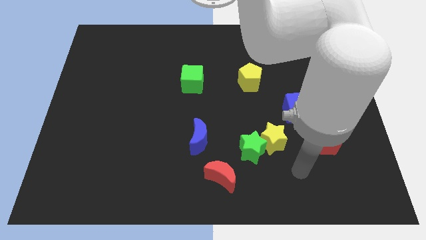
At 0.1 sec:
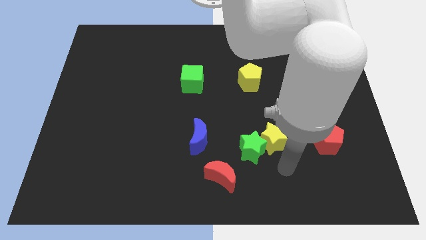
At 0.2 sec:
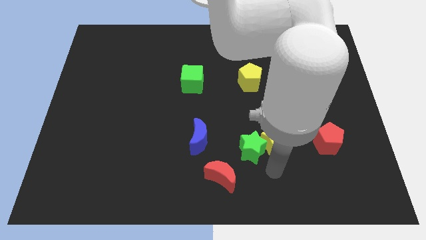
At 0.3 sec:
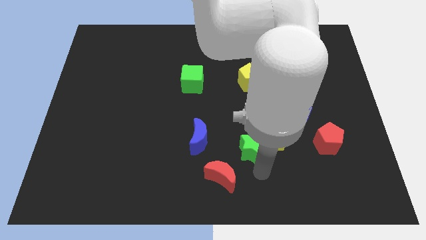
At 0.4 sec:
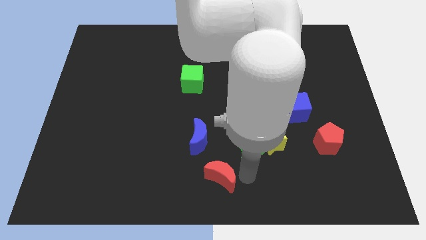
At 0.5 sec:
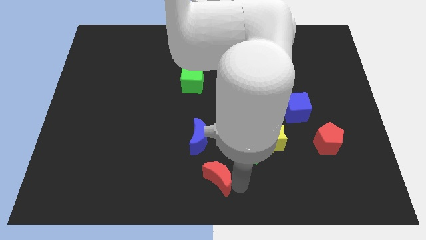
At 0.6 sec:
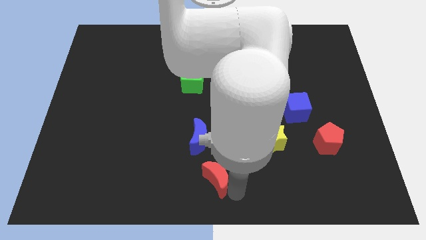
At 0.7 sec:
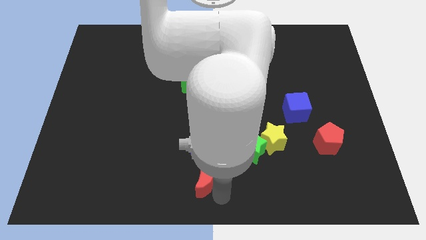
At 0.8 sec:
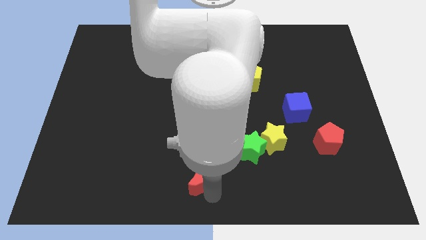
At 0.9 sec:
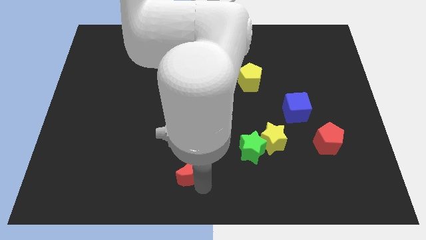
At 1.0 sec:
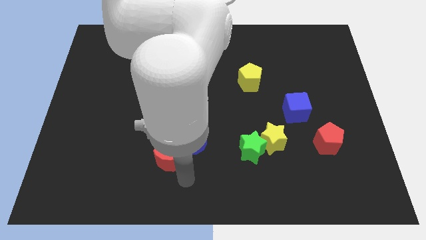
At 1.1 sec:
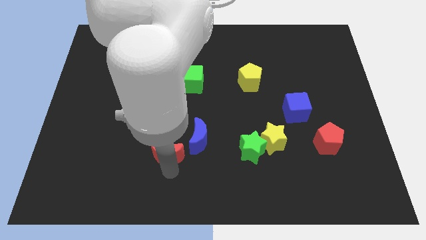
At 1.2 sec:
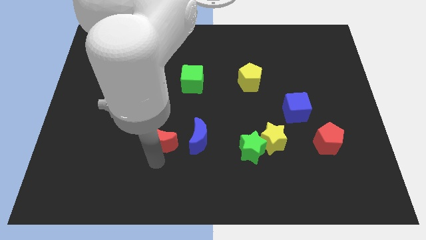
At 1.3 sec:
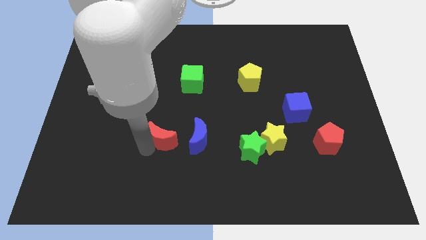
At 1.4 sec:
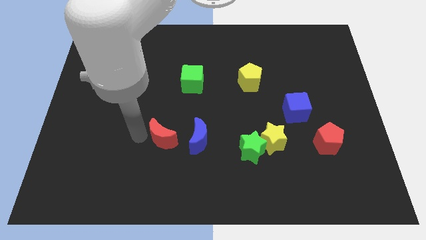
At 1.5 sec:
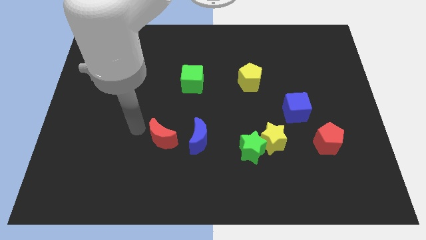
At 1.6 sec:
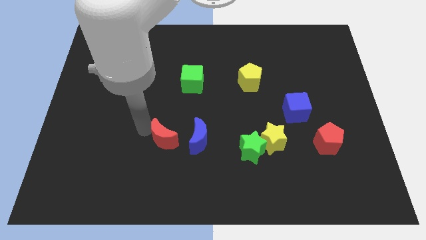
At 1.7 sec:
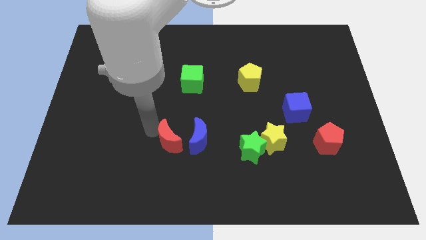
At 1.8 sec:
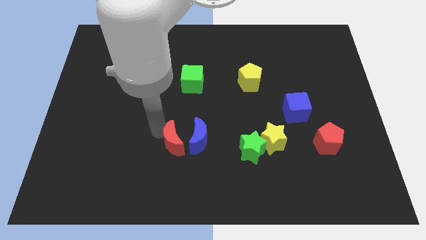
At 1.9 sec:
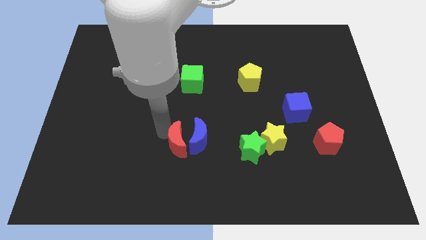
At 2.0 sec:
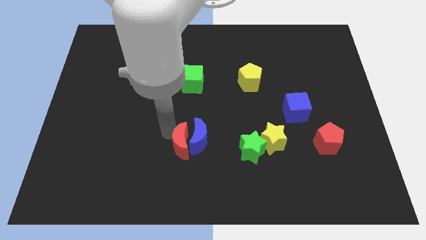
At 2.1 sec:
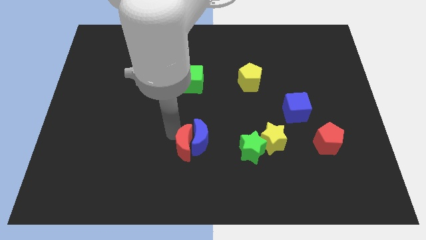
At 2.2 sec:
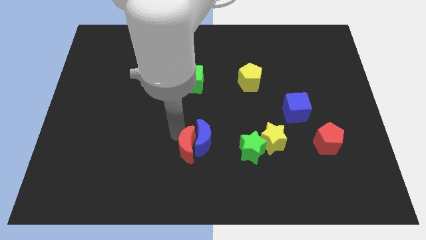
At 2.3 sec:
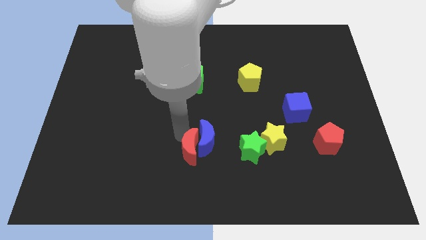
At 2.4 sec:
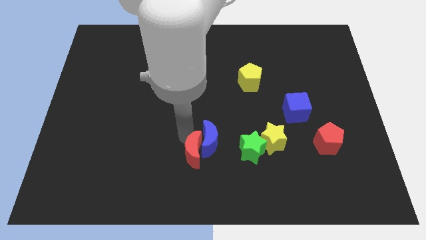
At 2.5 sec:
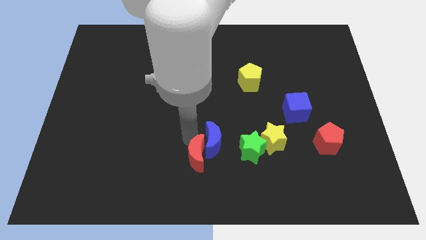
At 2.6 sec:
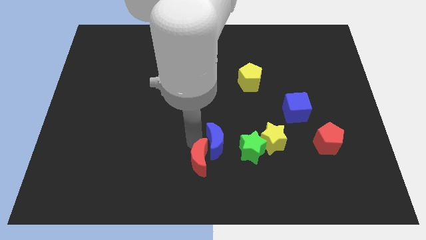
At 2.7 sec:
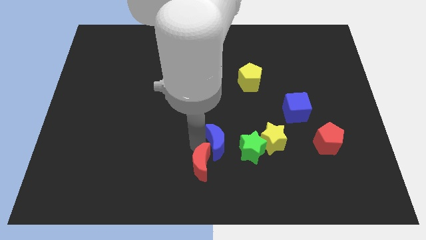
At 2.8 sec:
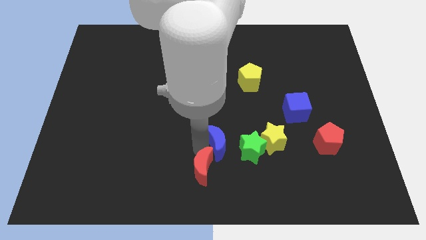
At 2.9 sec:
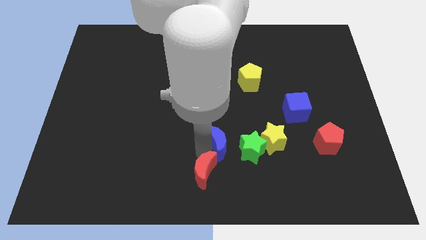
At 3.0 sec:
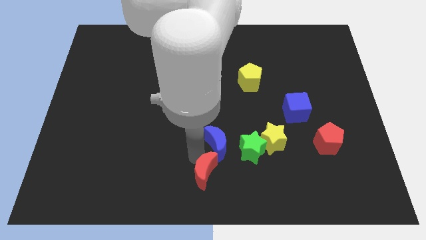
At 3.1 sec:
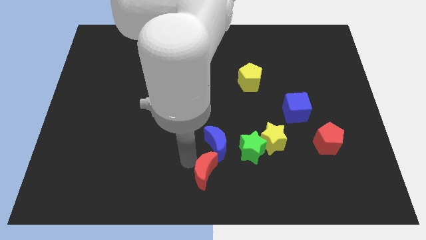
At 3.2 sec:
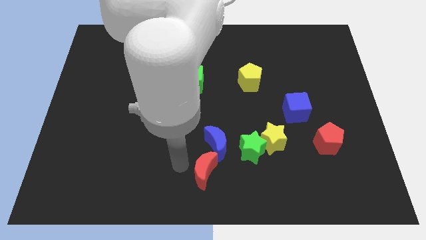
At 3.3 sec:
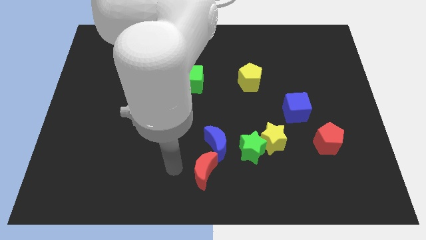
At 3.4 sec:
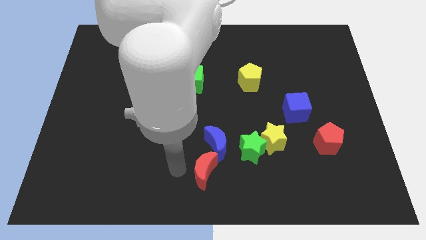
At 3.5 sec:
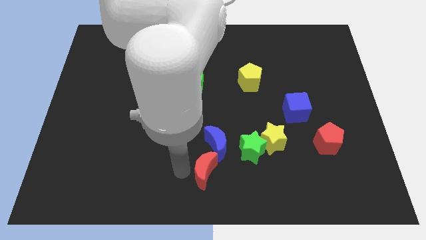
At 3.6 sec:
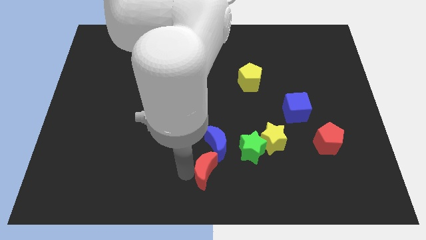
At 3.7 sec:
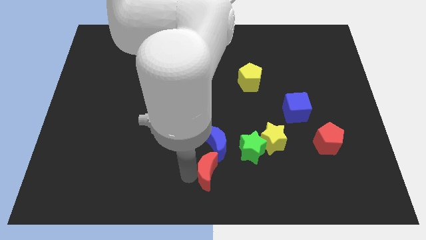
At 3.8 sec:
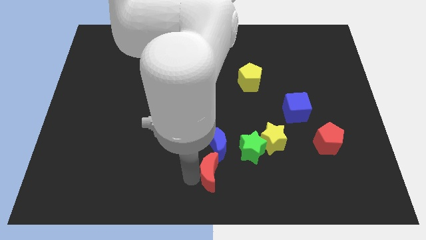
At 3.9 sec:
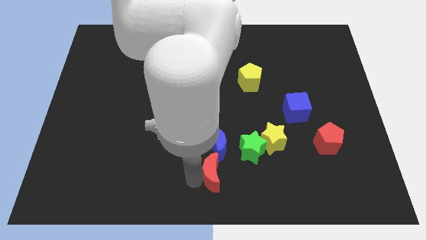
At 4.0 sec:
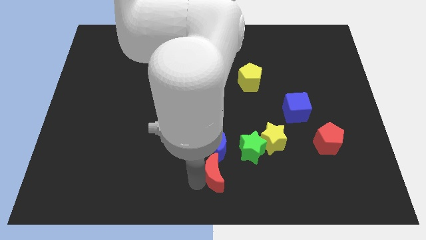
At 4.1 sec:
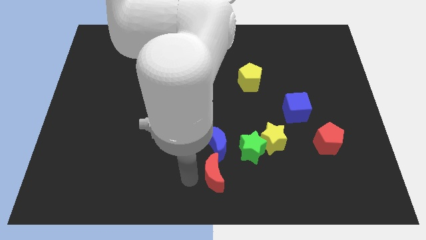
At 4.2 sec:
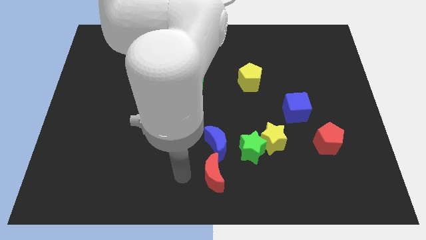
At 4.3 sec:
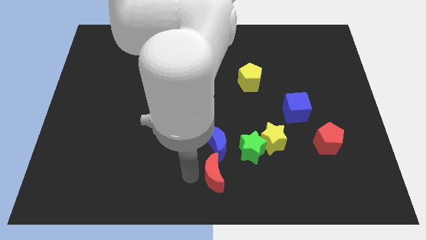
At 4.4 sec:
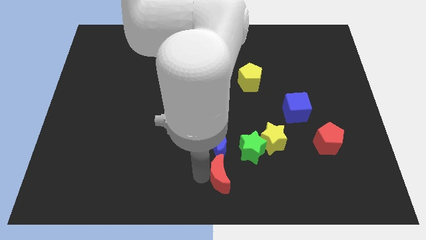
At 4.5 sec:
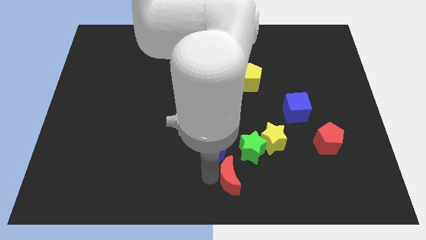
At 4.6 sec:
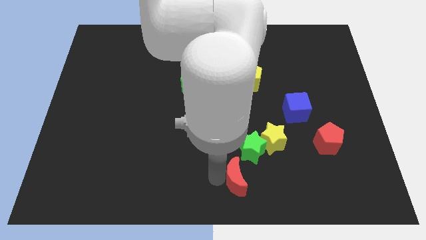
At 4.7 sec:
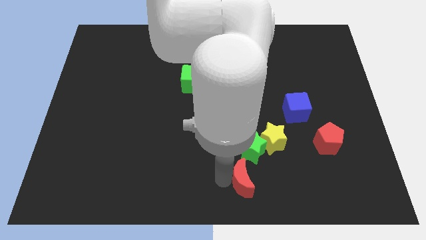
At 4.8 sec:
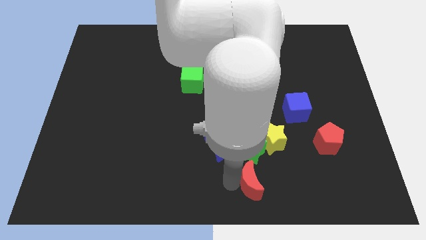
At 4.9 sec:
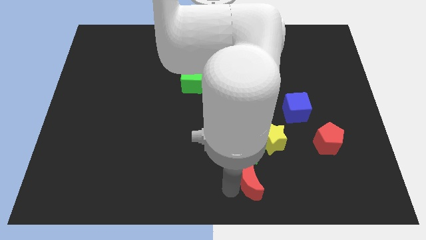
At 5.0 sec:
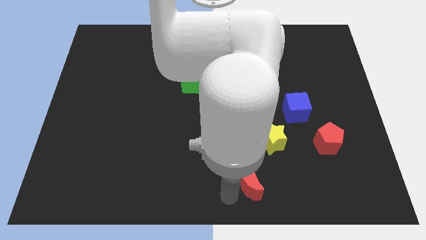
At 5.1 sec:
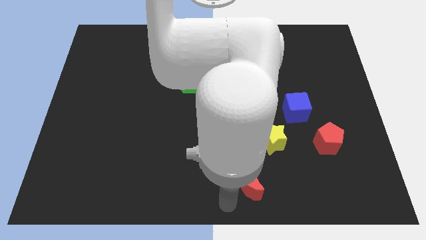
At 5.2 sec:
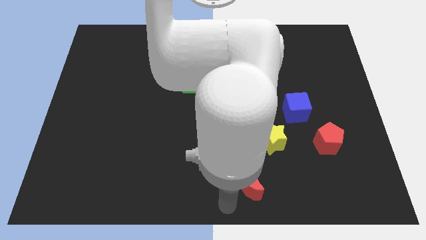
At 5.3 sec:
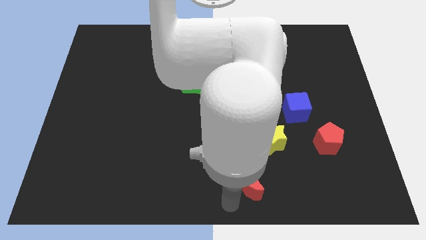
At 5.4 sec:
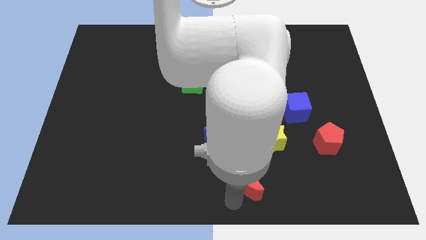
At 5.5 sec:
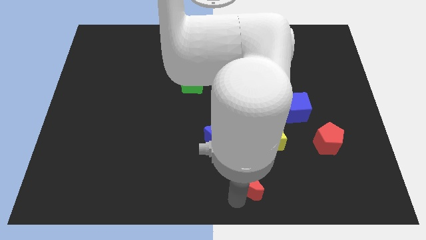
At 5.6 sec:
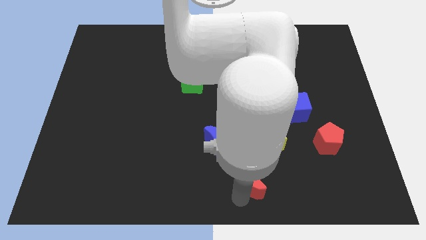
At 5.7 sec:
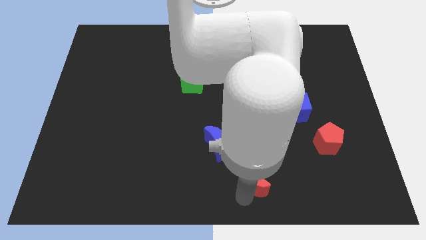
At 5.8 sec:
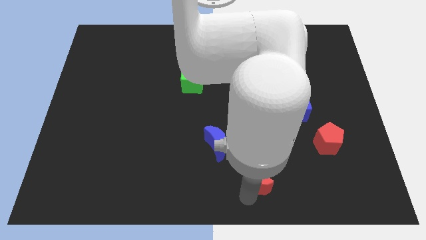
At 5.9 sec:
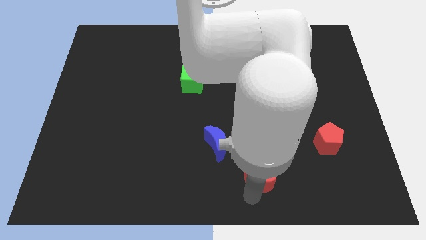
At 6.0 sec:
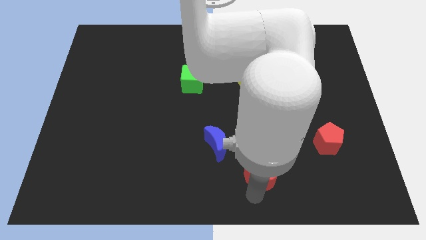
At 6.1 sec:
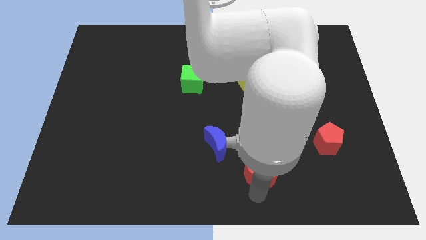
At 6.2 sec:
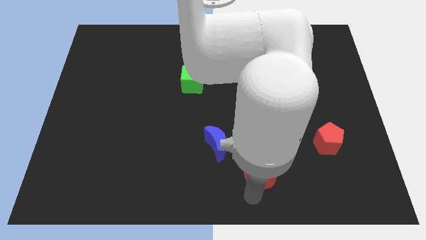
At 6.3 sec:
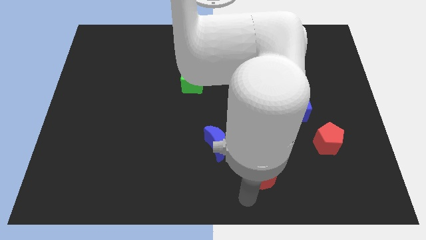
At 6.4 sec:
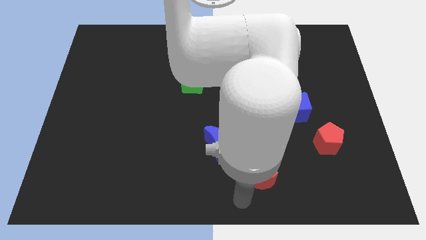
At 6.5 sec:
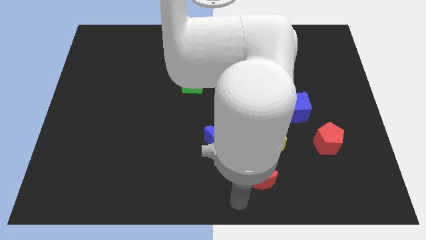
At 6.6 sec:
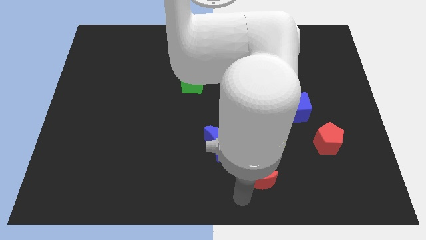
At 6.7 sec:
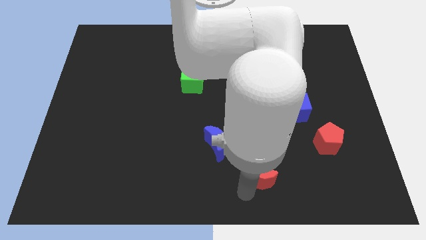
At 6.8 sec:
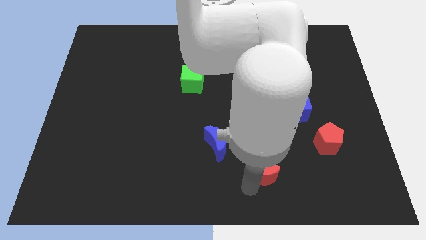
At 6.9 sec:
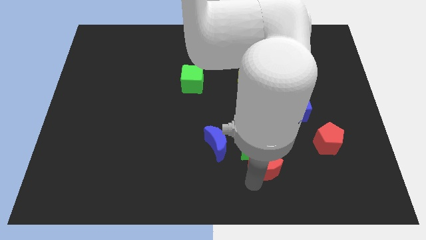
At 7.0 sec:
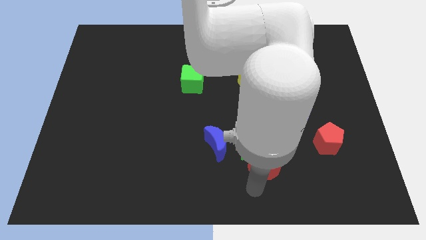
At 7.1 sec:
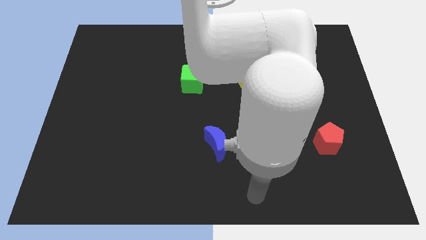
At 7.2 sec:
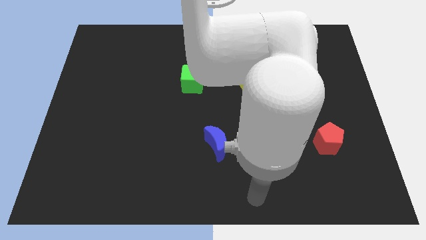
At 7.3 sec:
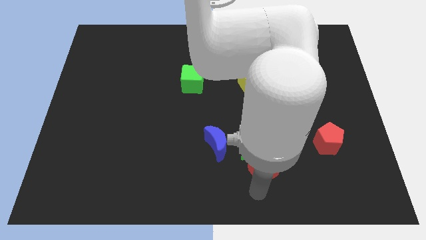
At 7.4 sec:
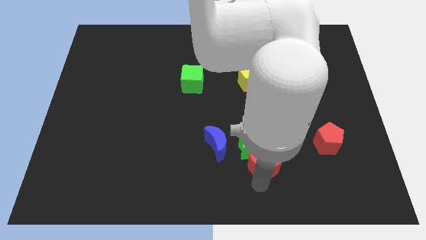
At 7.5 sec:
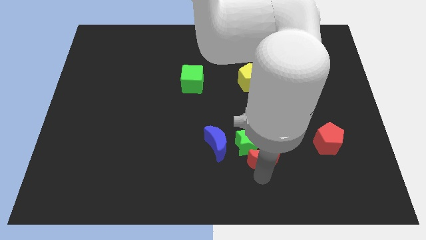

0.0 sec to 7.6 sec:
slide the red moon to the yellow star
